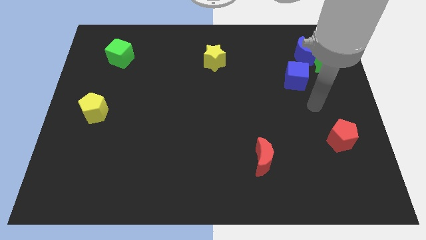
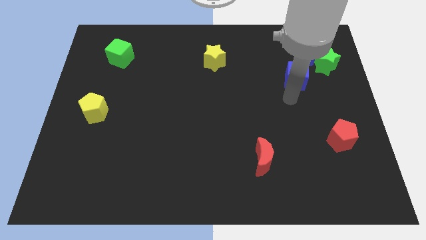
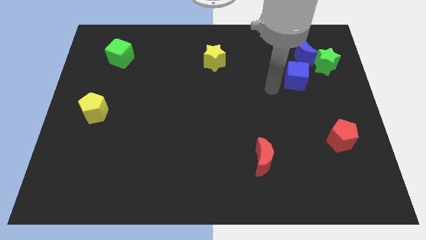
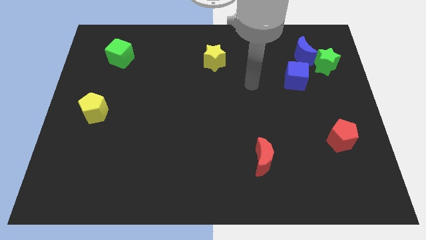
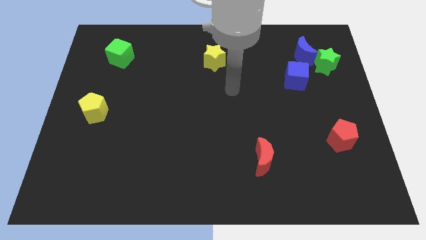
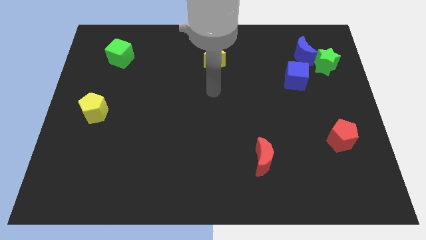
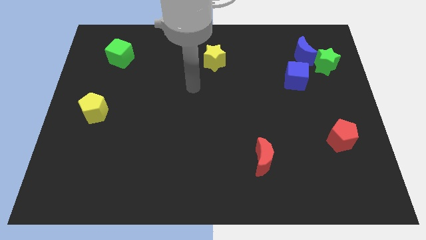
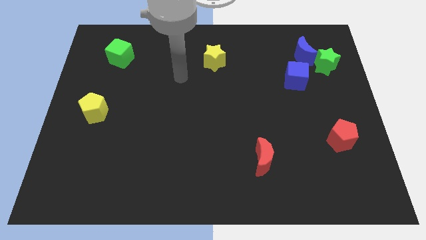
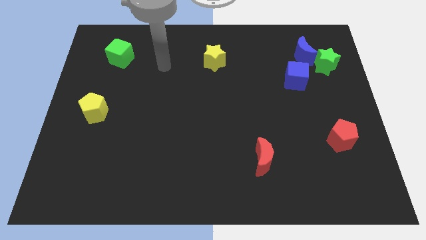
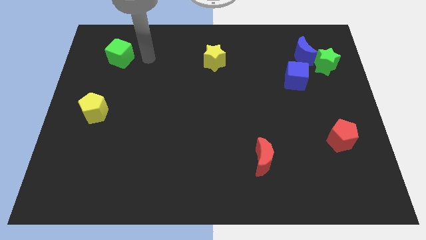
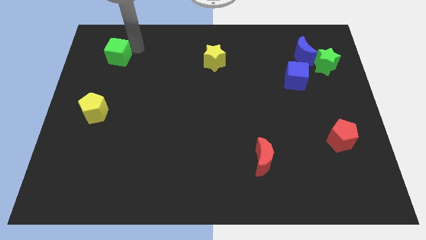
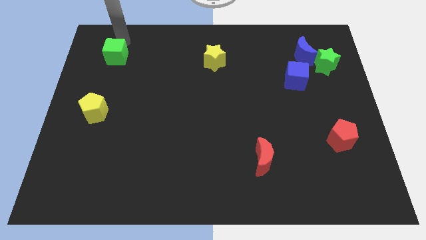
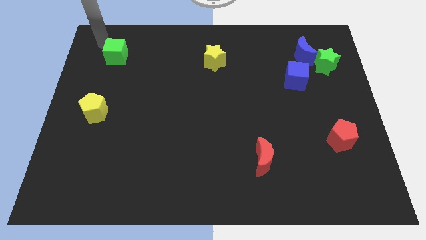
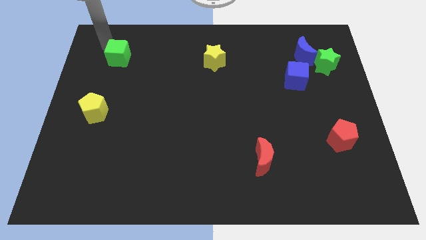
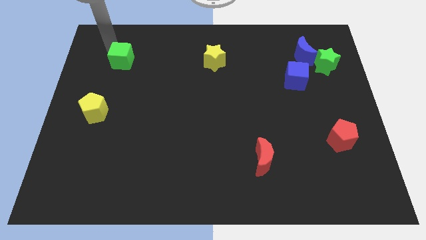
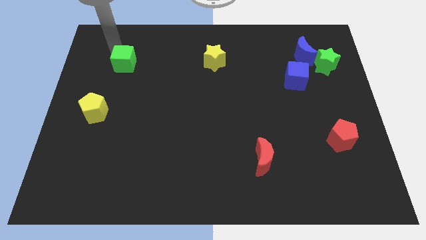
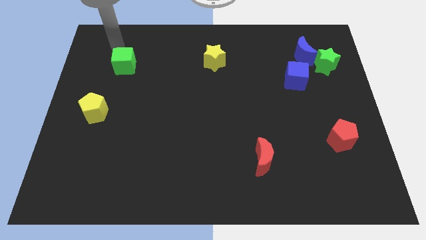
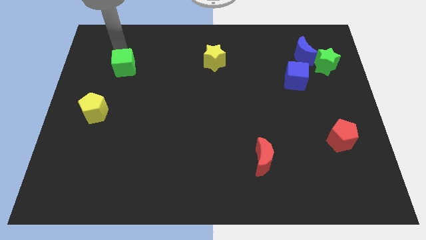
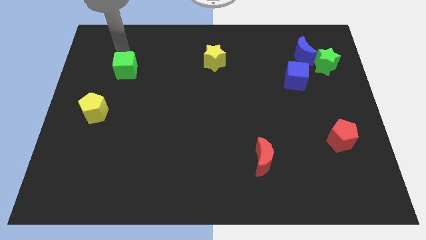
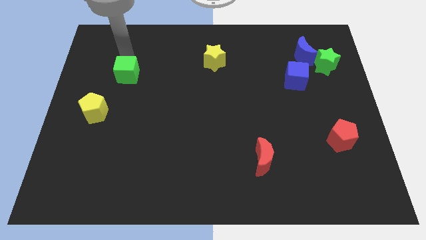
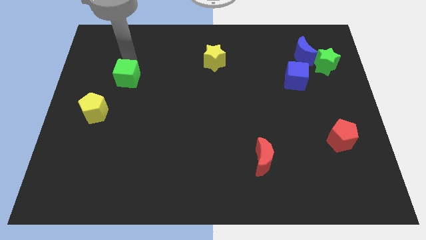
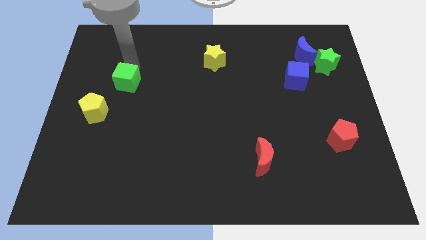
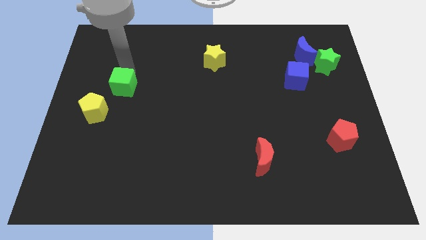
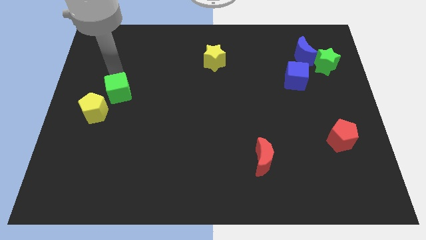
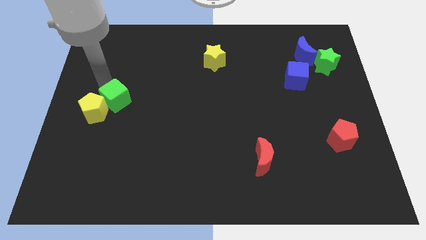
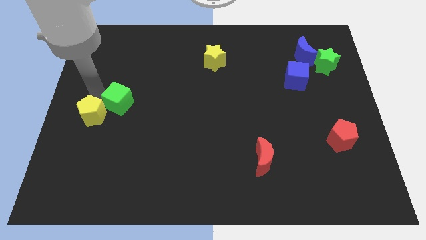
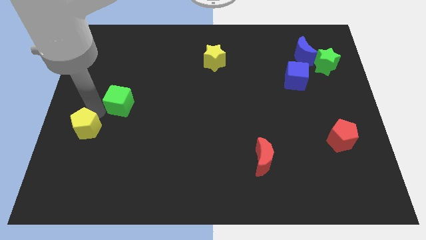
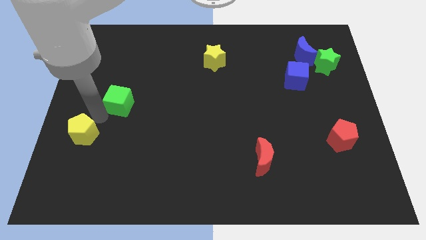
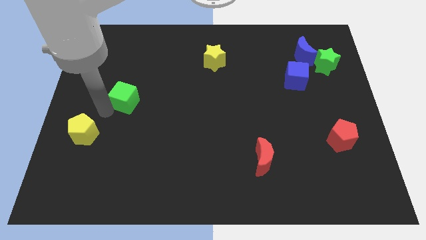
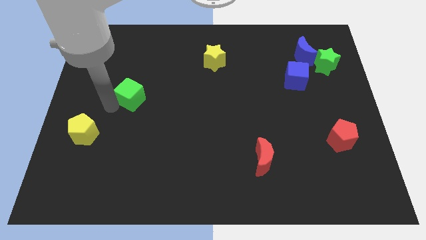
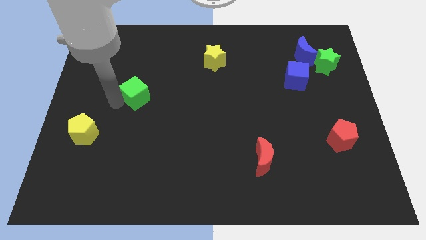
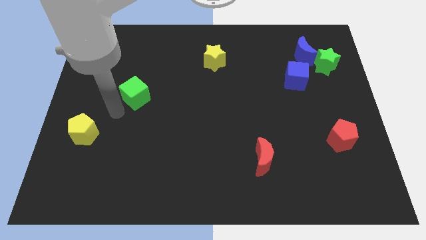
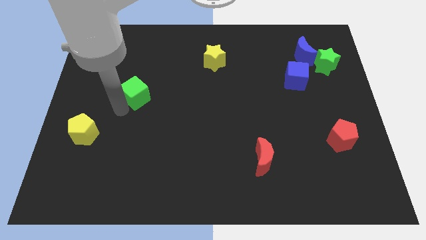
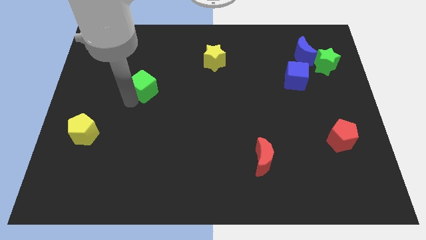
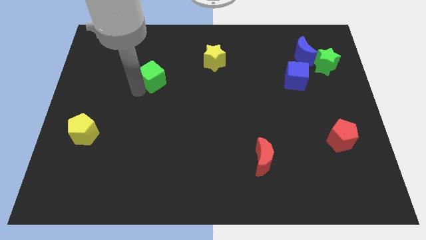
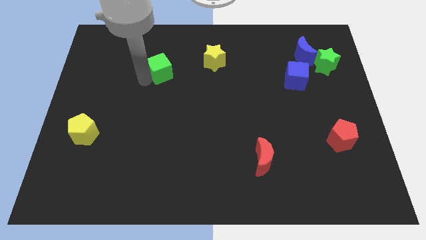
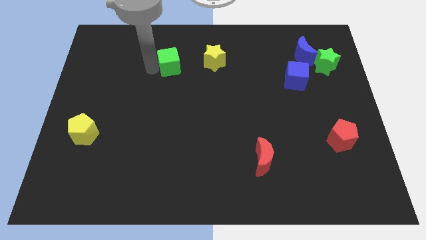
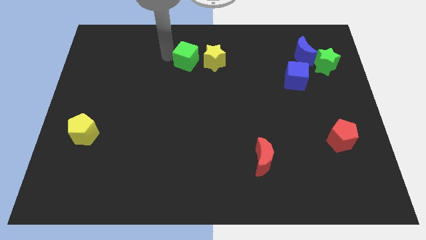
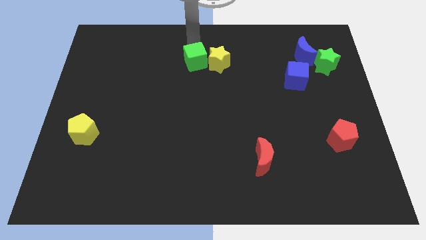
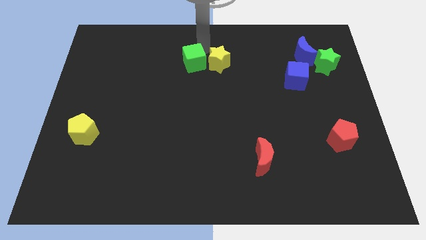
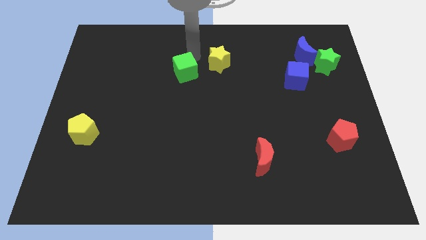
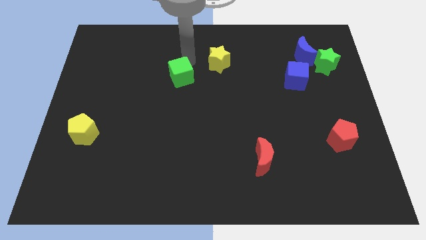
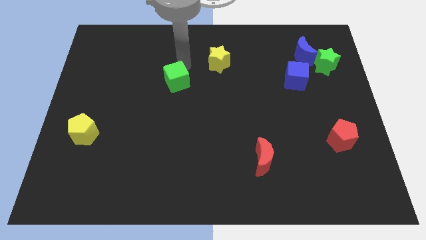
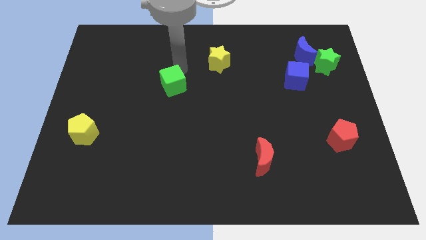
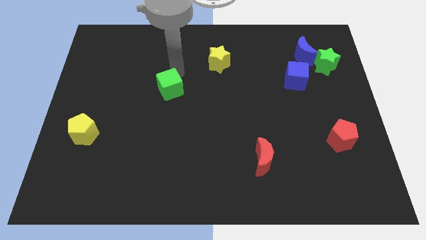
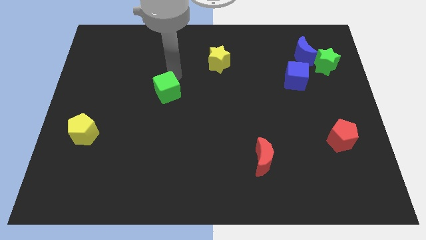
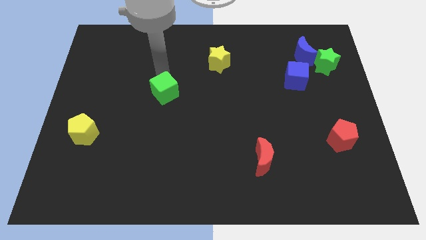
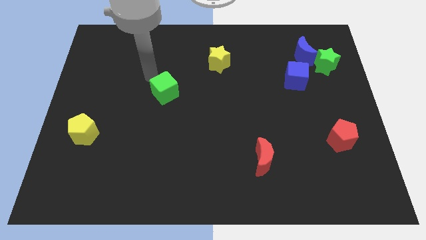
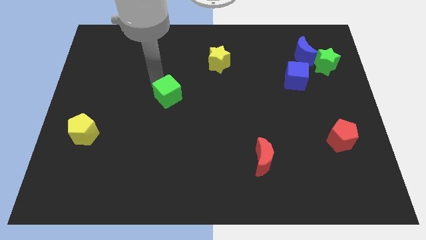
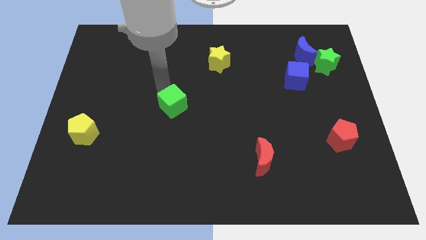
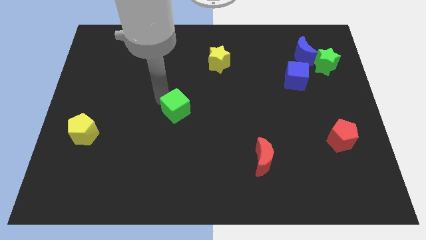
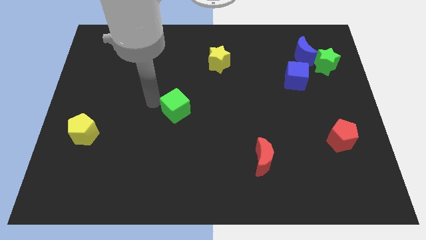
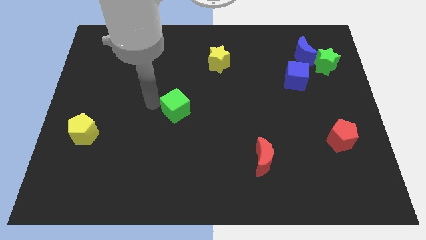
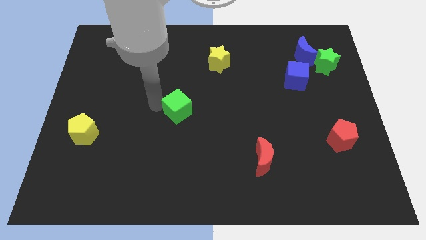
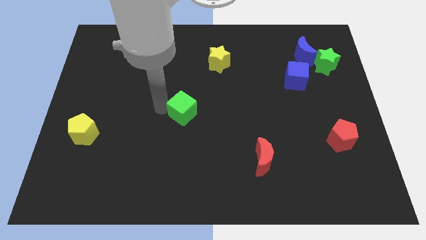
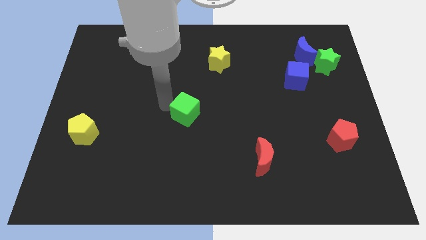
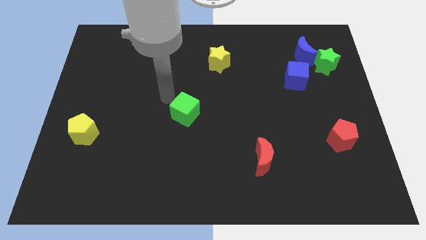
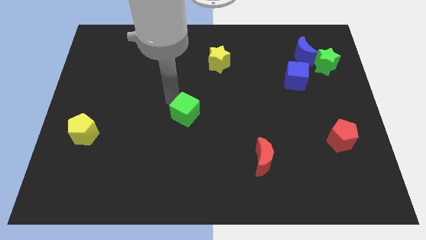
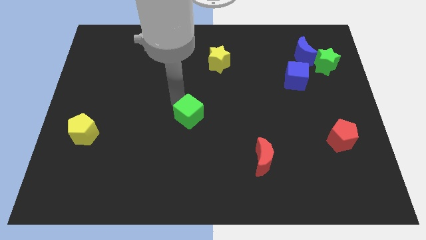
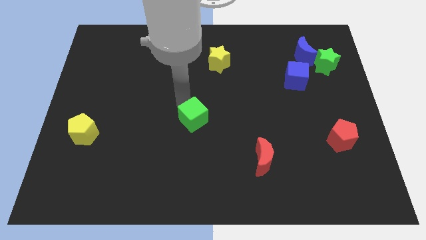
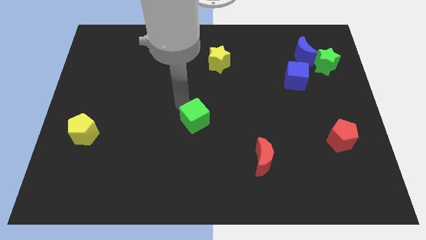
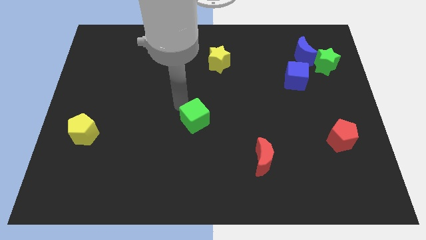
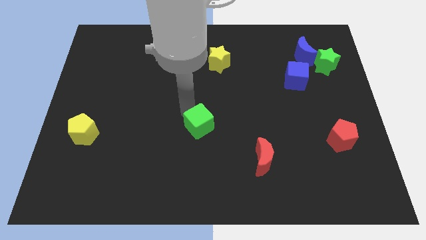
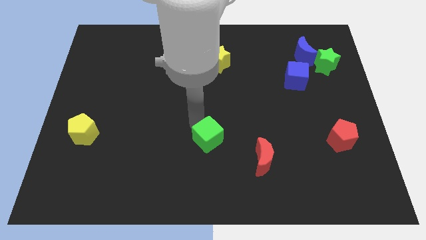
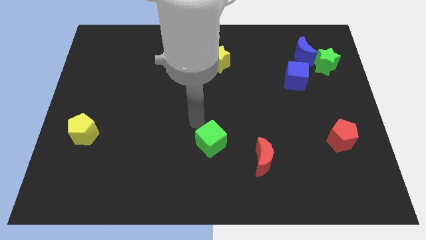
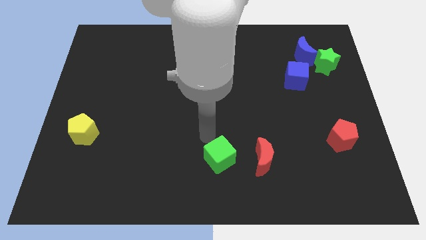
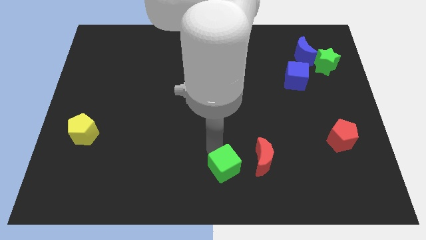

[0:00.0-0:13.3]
move the green cube to the bottom left of the red moon

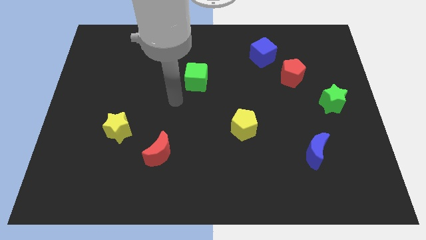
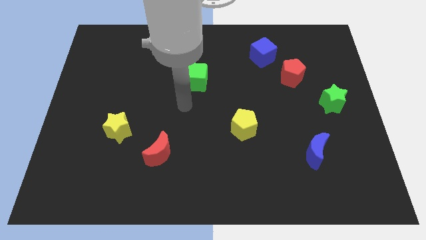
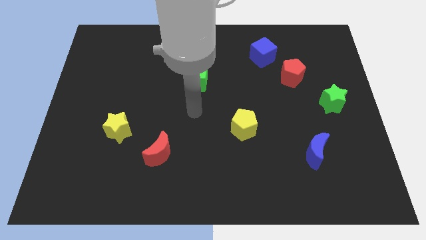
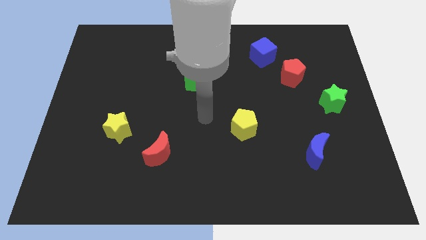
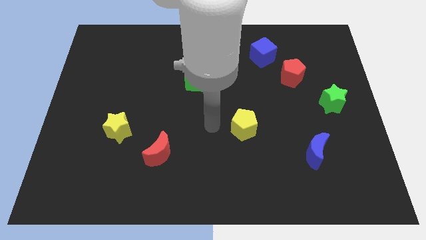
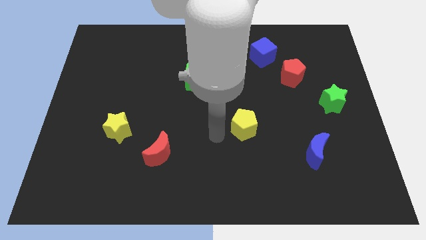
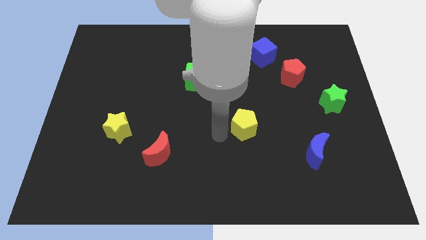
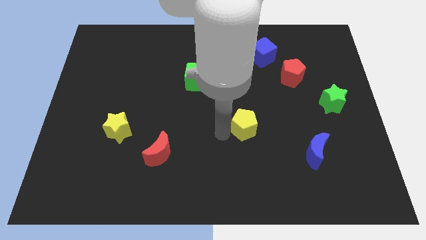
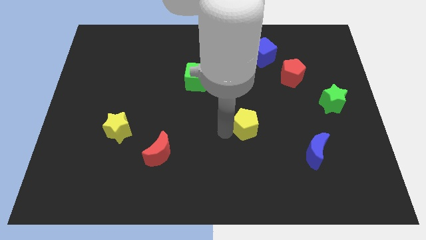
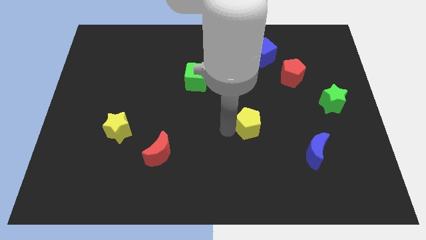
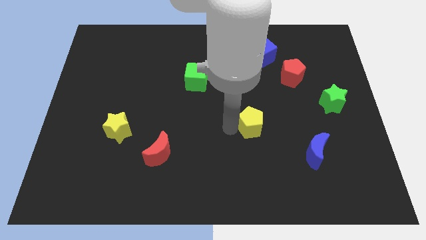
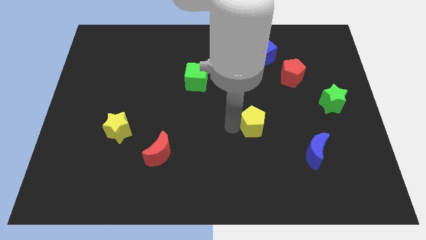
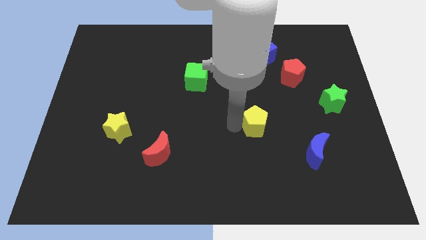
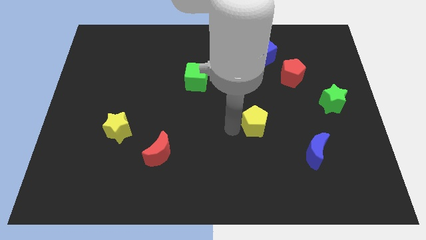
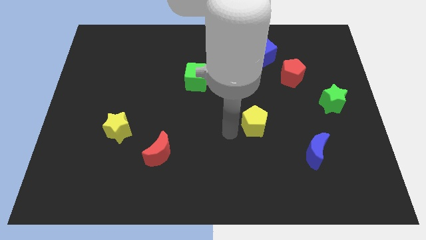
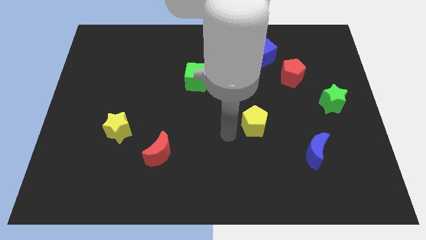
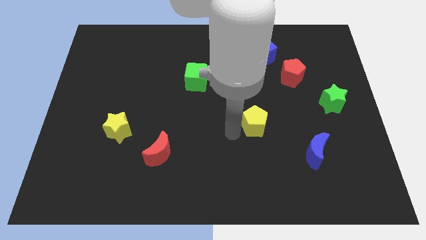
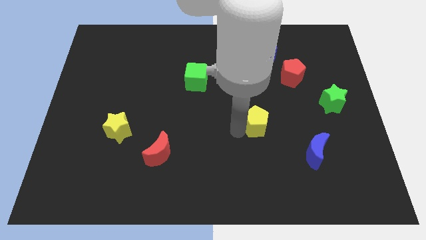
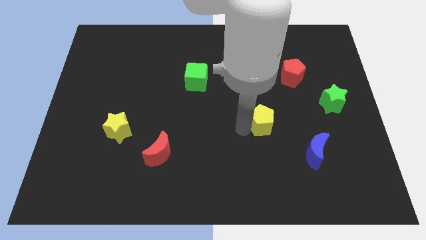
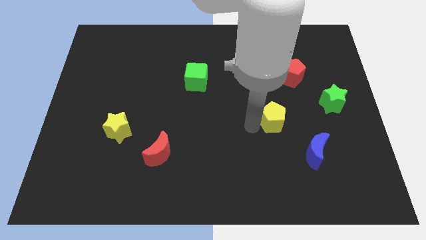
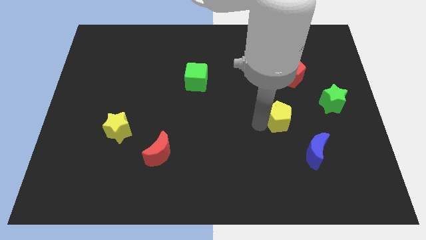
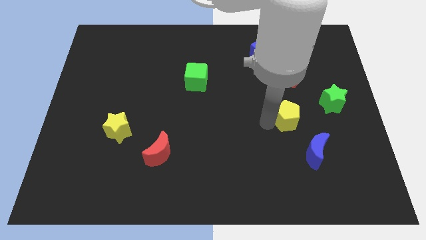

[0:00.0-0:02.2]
put the yellow pentagon to the bottom side of the red pentagon
